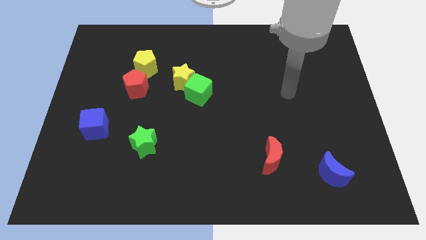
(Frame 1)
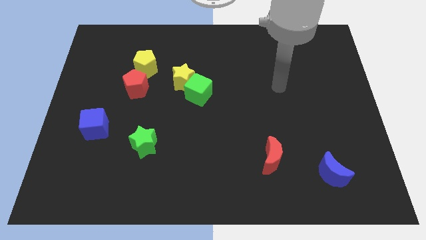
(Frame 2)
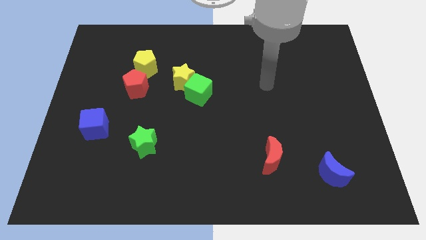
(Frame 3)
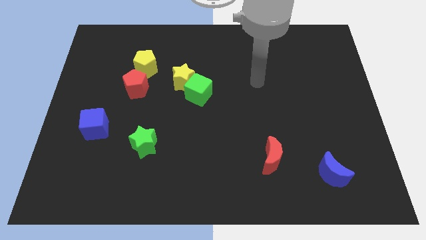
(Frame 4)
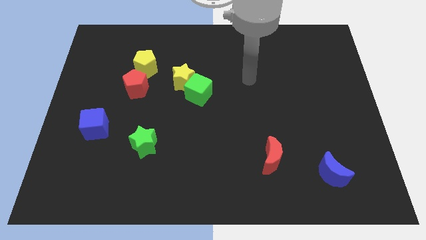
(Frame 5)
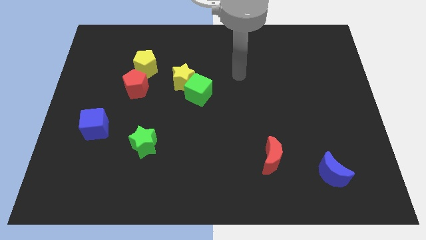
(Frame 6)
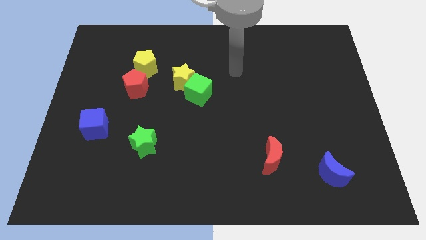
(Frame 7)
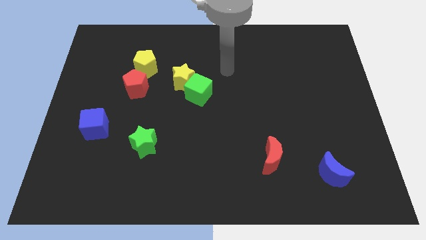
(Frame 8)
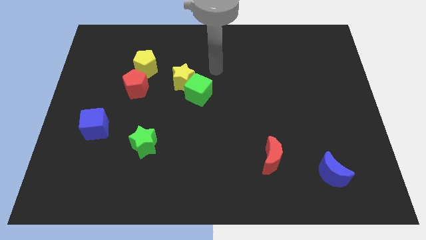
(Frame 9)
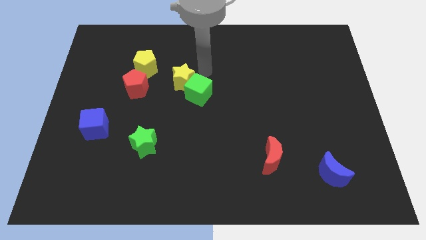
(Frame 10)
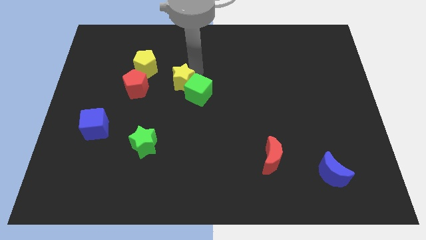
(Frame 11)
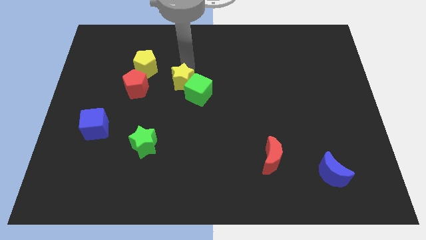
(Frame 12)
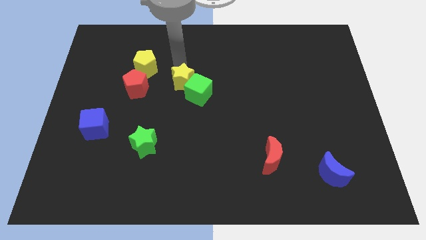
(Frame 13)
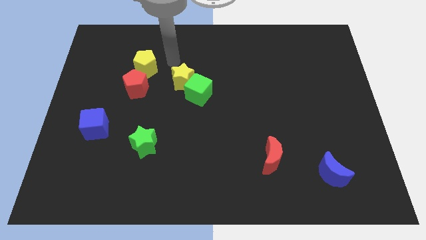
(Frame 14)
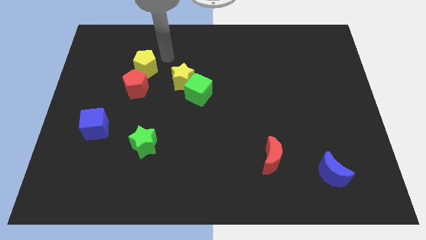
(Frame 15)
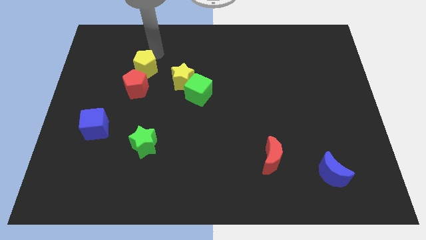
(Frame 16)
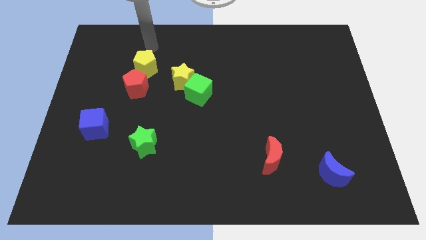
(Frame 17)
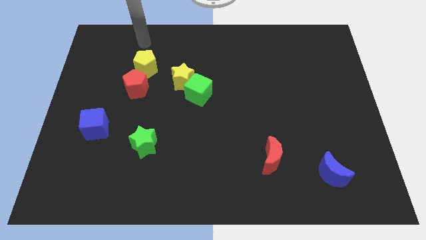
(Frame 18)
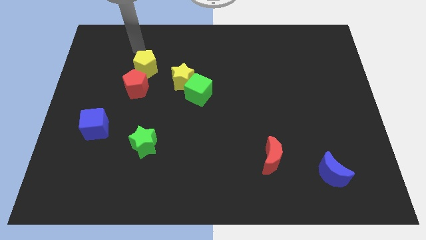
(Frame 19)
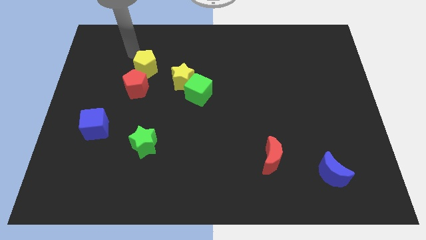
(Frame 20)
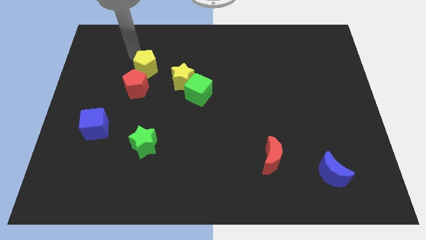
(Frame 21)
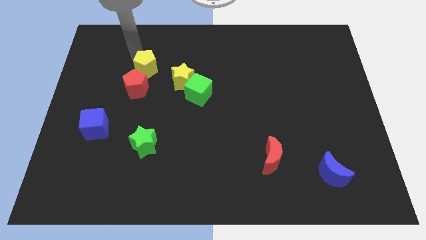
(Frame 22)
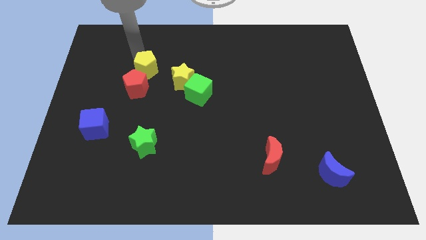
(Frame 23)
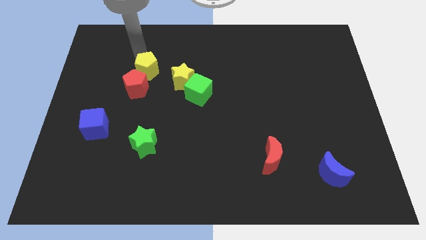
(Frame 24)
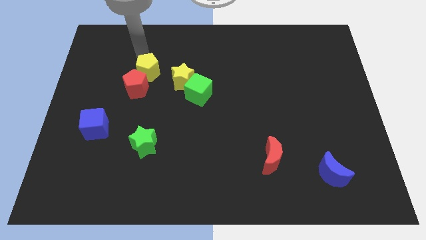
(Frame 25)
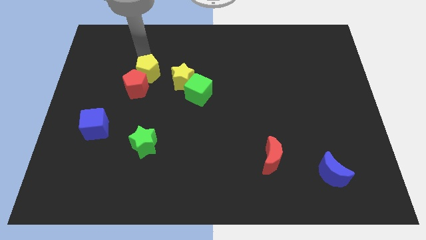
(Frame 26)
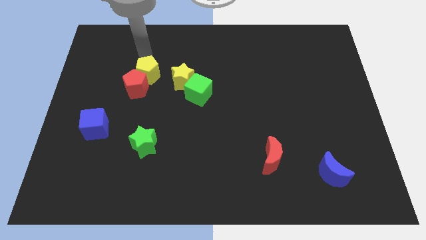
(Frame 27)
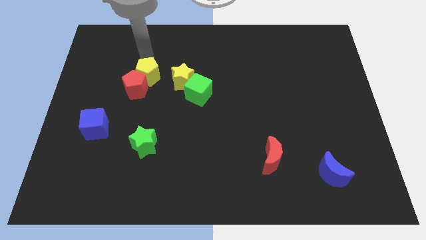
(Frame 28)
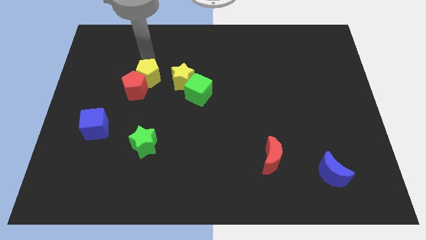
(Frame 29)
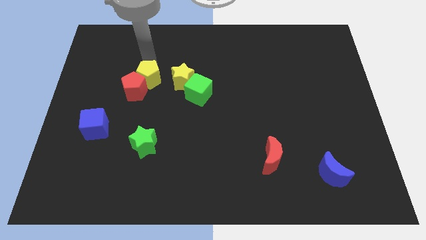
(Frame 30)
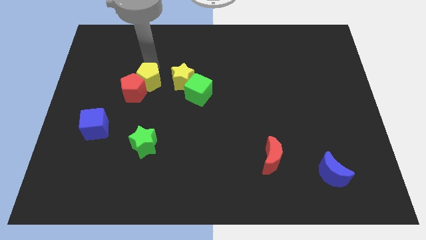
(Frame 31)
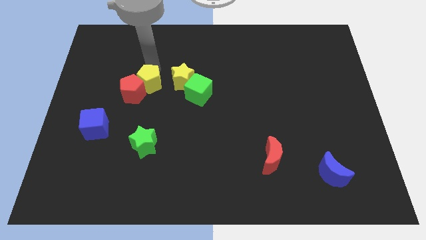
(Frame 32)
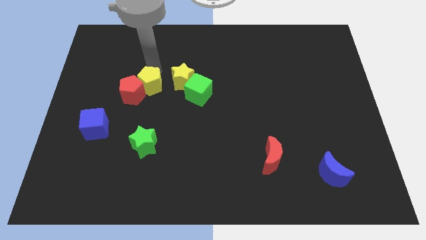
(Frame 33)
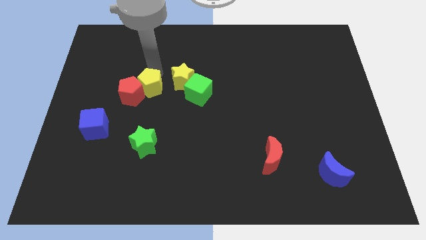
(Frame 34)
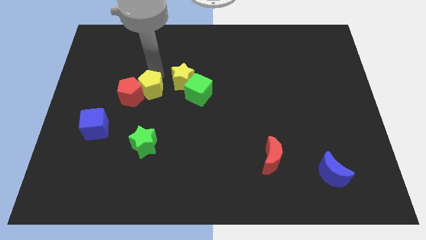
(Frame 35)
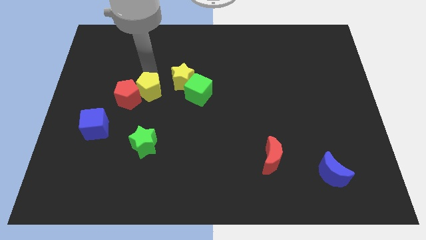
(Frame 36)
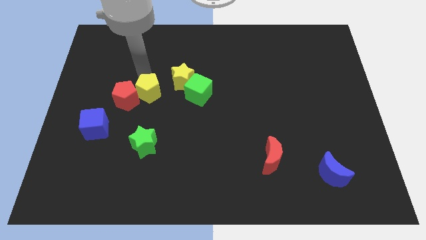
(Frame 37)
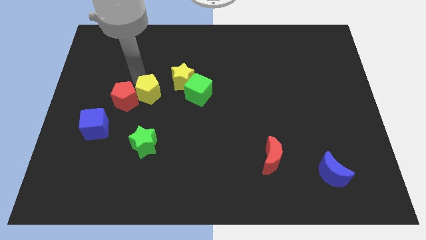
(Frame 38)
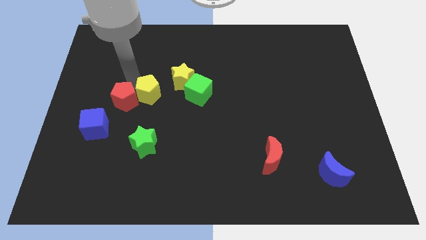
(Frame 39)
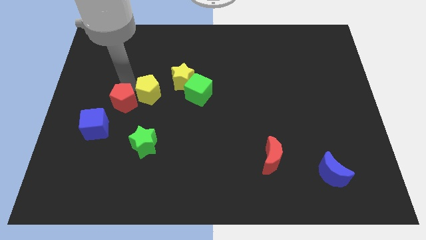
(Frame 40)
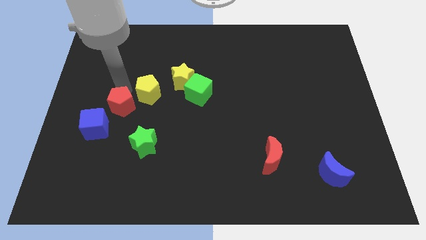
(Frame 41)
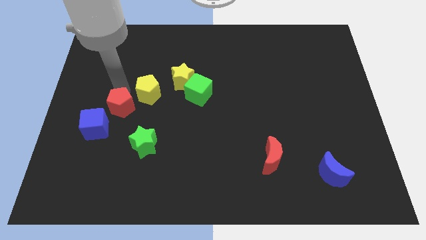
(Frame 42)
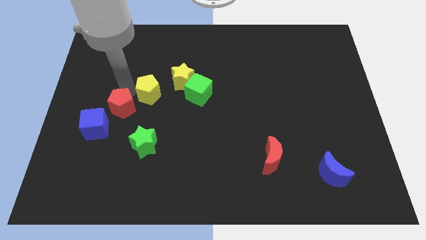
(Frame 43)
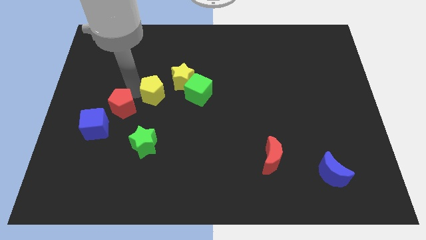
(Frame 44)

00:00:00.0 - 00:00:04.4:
slightly move the yellow pentagon down and then to the right

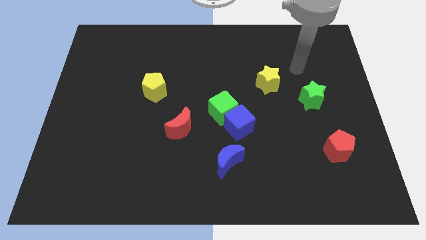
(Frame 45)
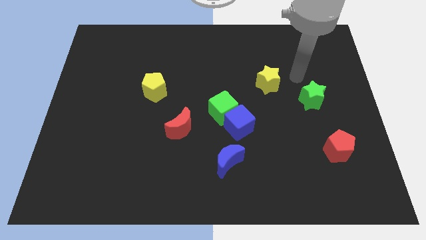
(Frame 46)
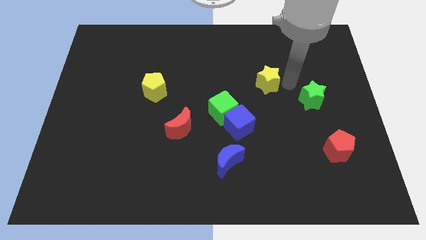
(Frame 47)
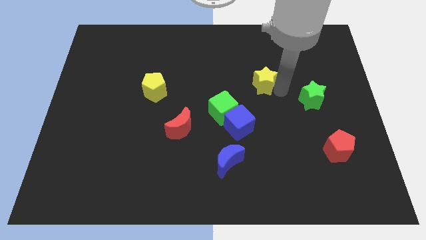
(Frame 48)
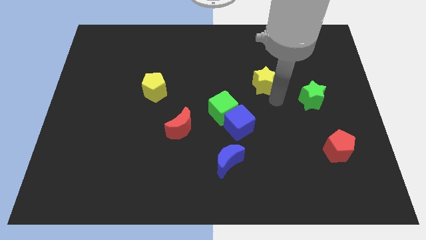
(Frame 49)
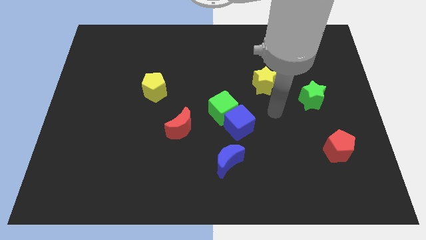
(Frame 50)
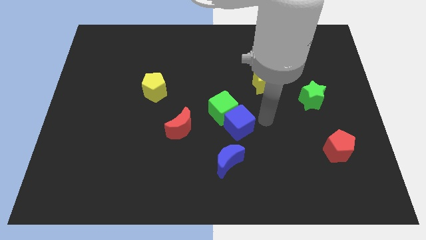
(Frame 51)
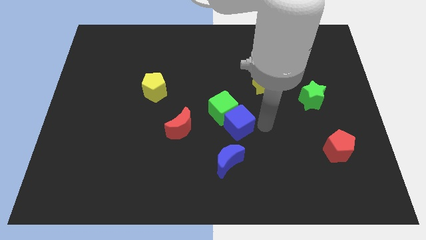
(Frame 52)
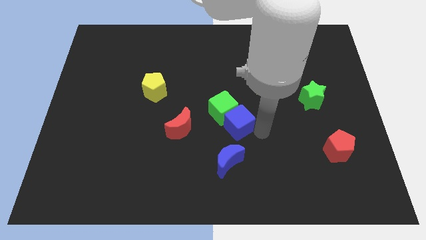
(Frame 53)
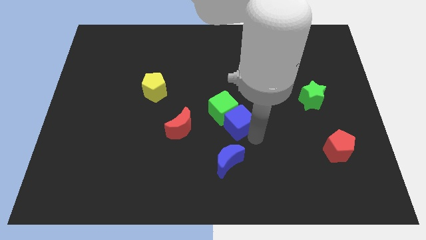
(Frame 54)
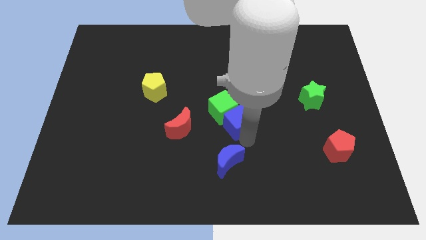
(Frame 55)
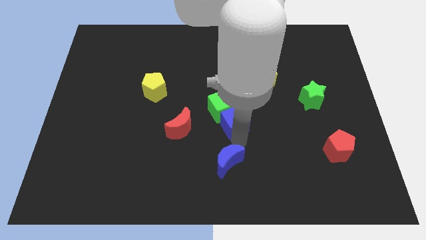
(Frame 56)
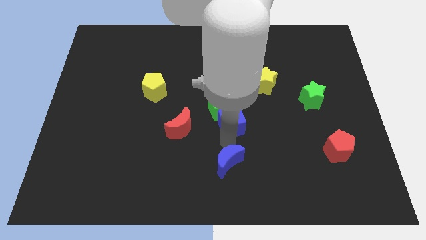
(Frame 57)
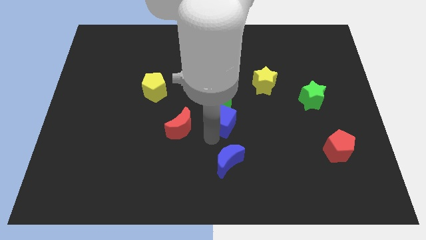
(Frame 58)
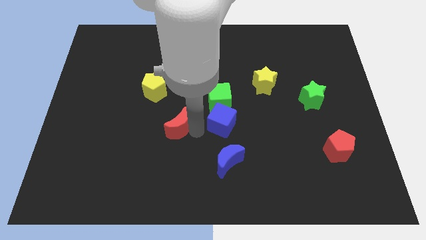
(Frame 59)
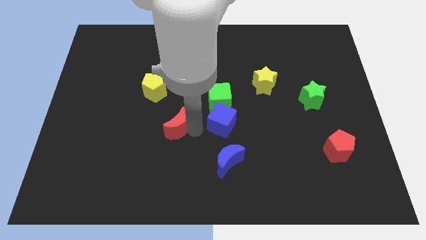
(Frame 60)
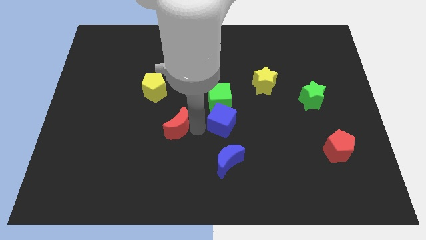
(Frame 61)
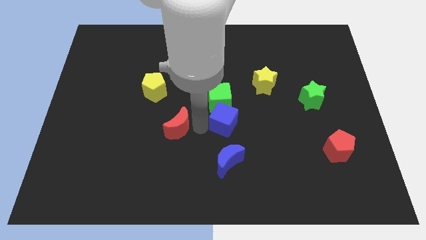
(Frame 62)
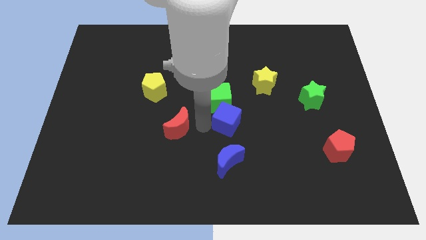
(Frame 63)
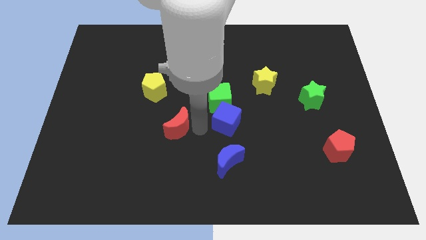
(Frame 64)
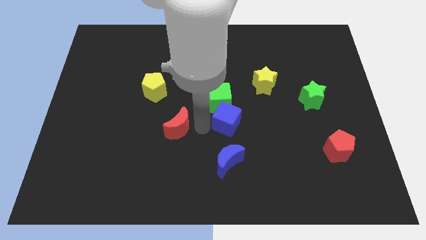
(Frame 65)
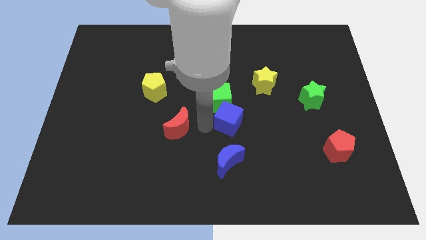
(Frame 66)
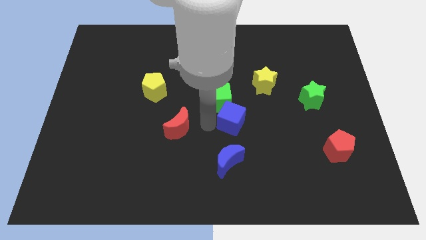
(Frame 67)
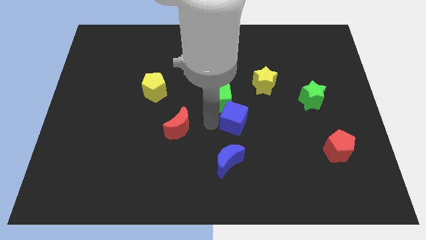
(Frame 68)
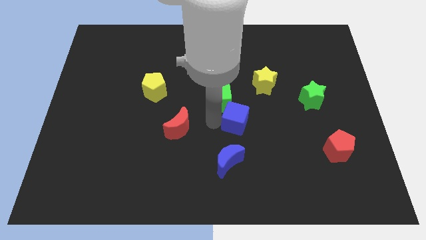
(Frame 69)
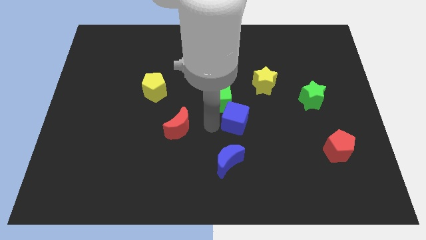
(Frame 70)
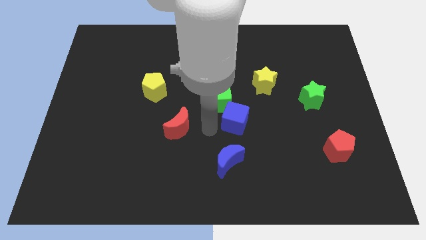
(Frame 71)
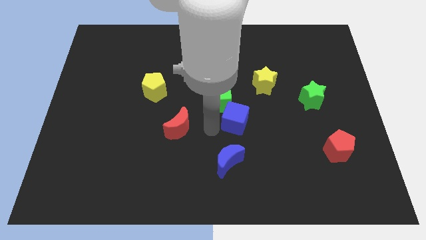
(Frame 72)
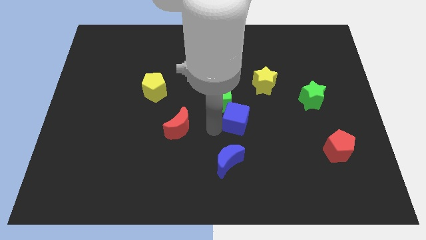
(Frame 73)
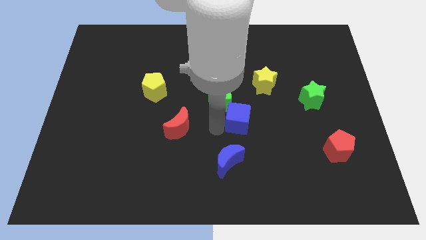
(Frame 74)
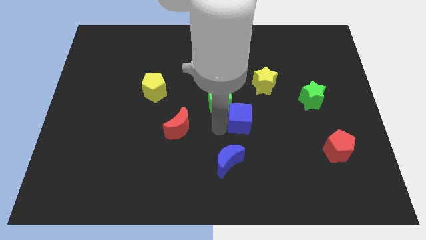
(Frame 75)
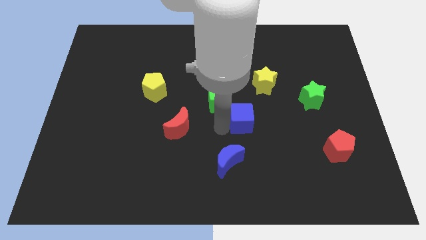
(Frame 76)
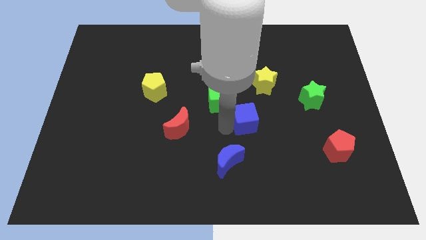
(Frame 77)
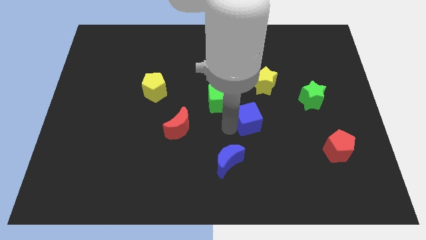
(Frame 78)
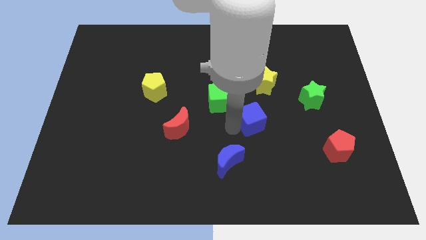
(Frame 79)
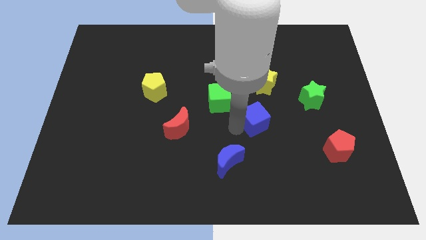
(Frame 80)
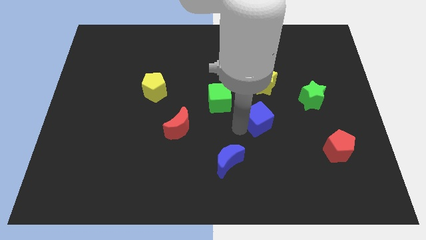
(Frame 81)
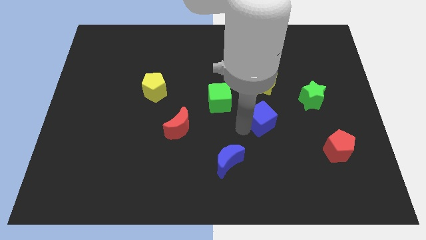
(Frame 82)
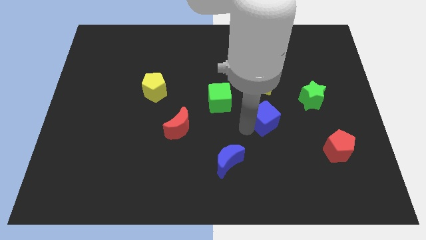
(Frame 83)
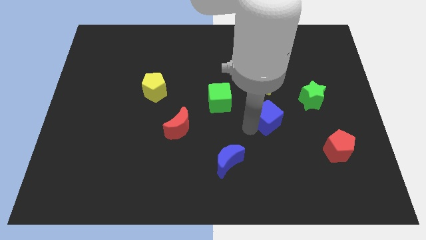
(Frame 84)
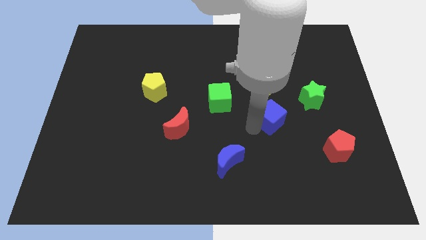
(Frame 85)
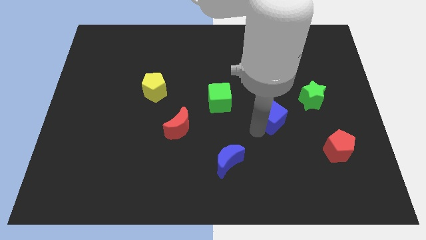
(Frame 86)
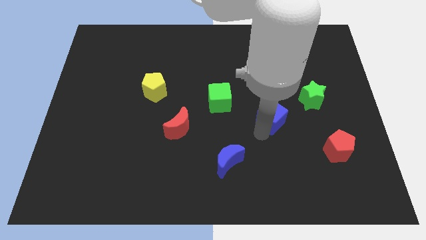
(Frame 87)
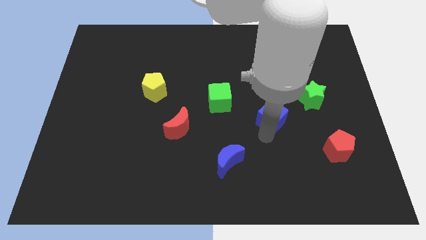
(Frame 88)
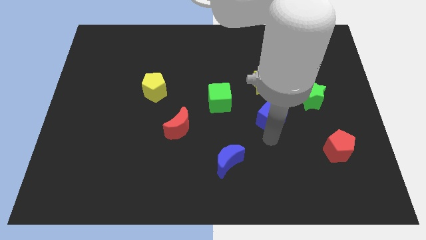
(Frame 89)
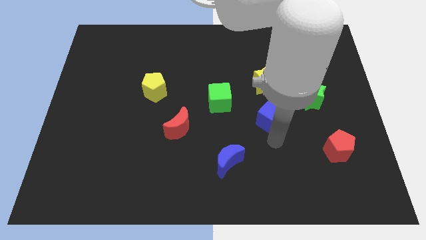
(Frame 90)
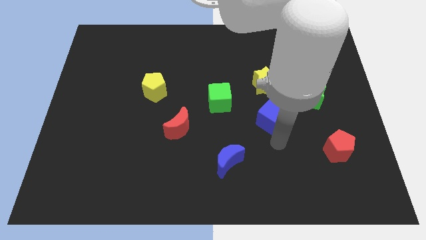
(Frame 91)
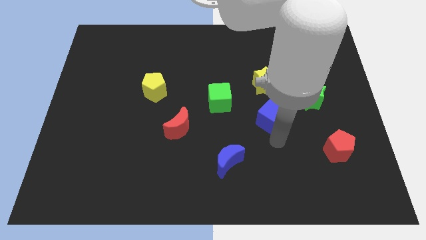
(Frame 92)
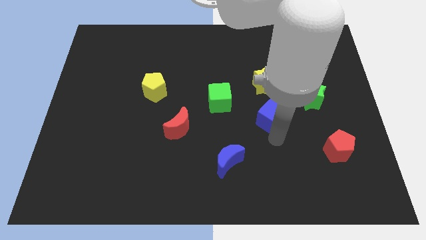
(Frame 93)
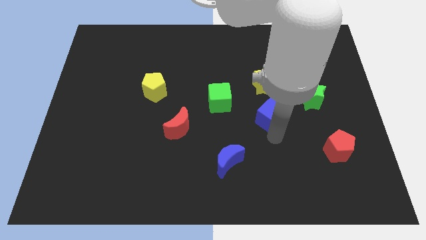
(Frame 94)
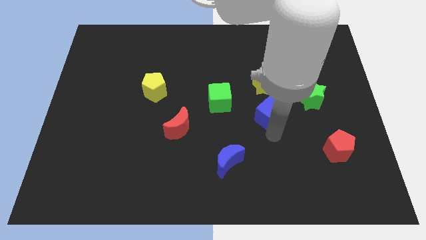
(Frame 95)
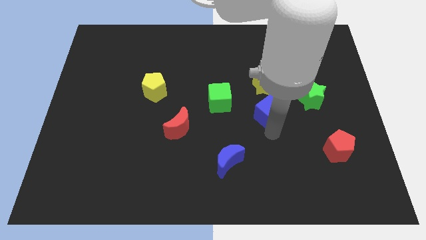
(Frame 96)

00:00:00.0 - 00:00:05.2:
slide the blue cube a little bit upwards and right diagonally
